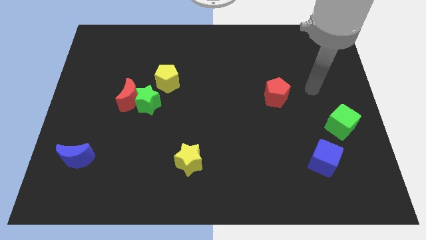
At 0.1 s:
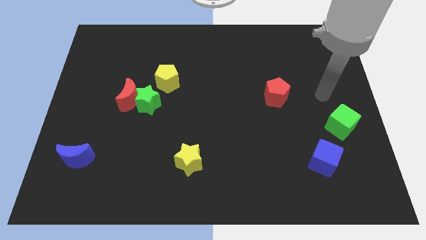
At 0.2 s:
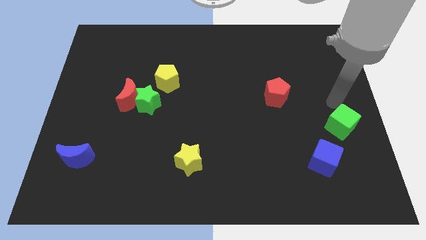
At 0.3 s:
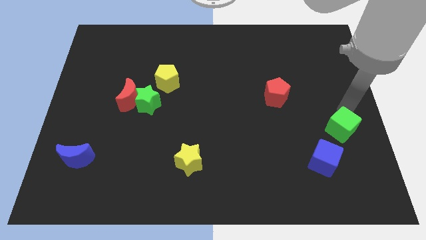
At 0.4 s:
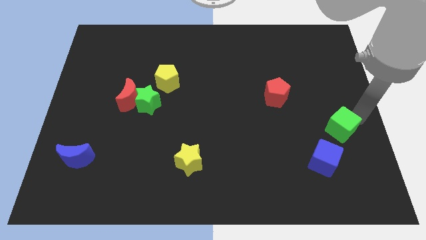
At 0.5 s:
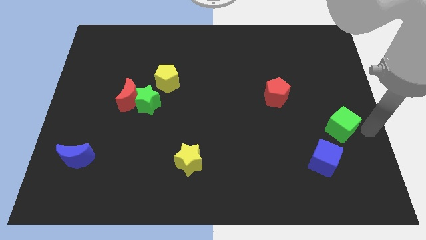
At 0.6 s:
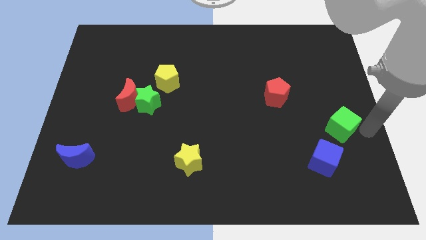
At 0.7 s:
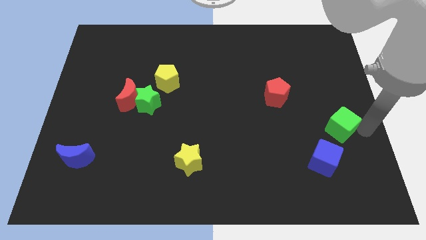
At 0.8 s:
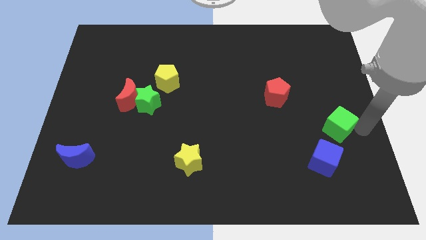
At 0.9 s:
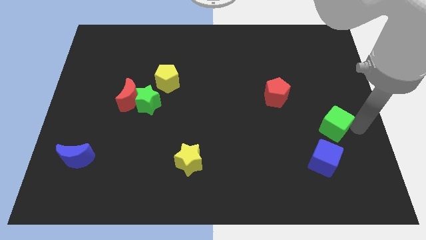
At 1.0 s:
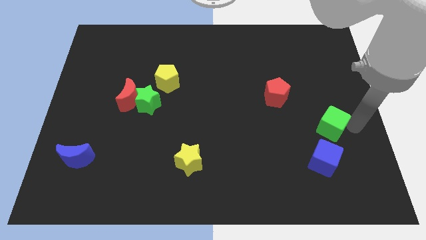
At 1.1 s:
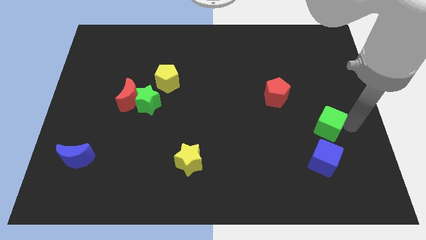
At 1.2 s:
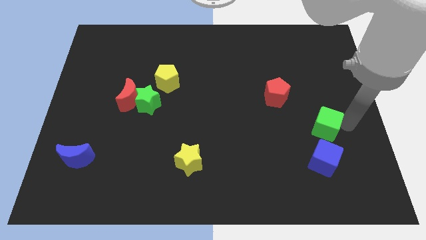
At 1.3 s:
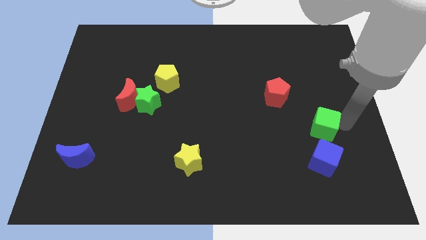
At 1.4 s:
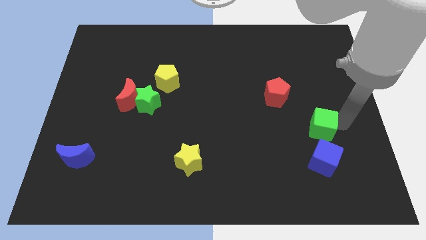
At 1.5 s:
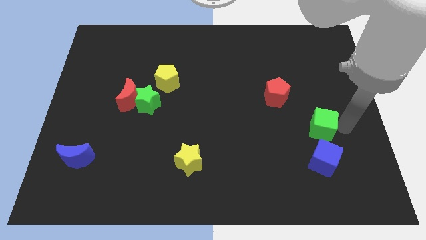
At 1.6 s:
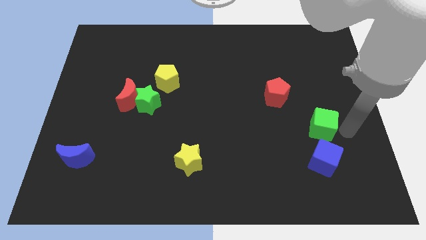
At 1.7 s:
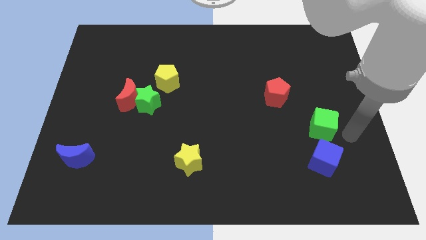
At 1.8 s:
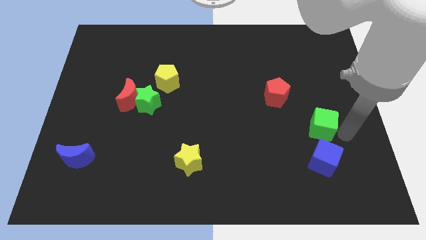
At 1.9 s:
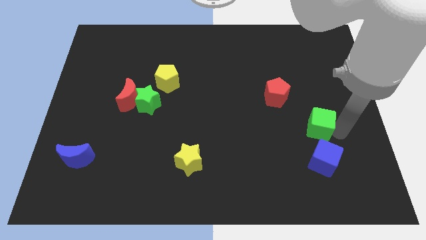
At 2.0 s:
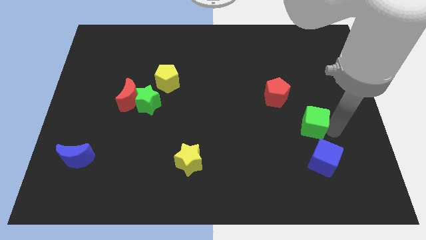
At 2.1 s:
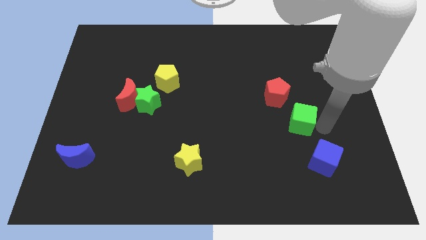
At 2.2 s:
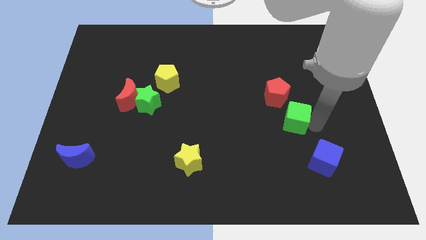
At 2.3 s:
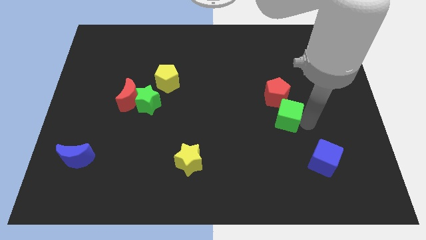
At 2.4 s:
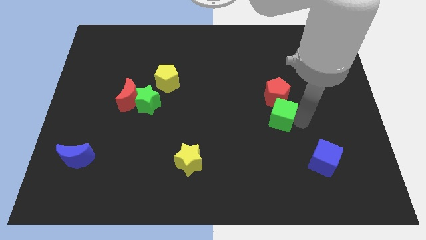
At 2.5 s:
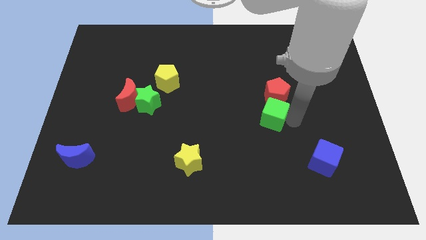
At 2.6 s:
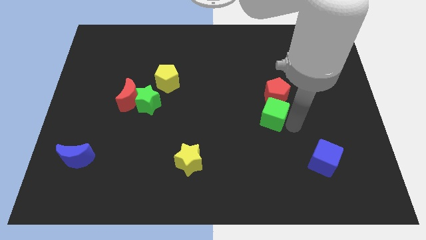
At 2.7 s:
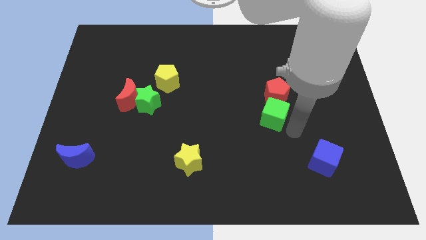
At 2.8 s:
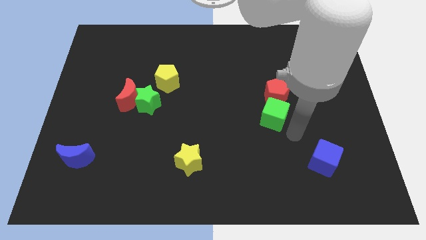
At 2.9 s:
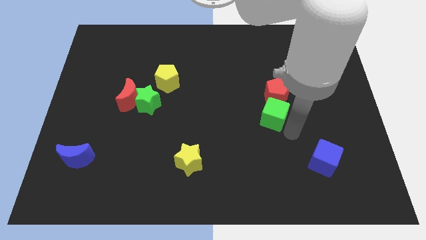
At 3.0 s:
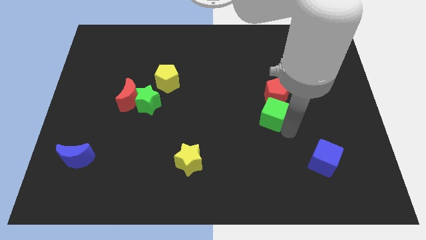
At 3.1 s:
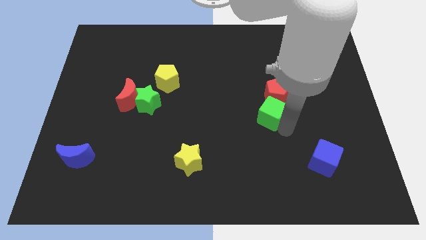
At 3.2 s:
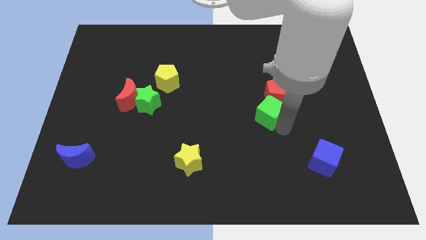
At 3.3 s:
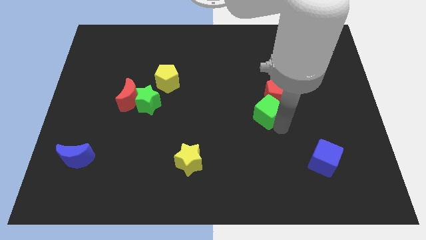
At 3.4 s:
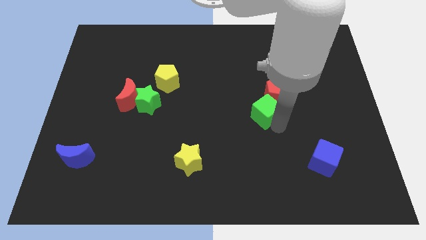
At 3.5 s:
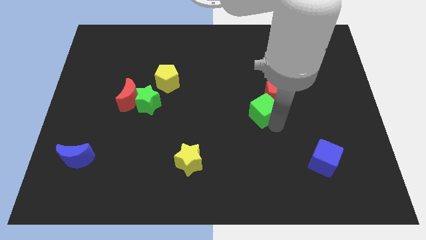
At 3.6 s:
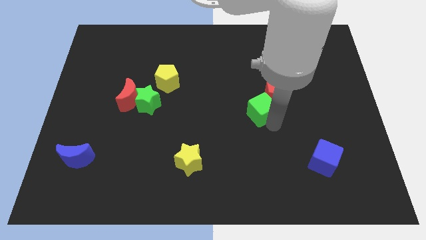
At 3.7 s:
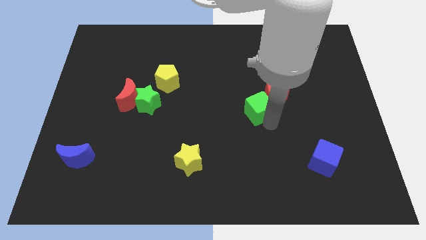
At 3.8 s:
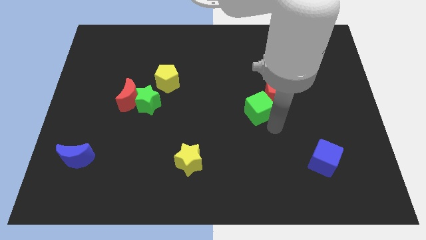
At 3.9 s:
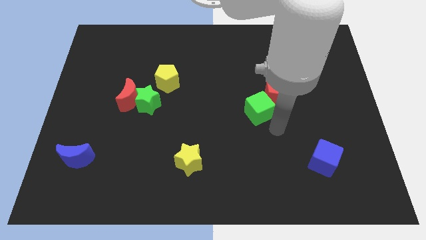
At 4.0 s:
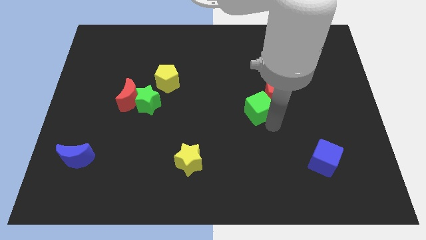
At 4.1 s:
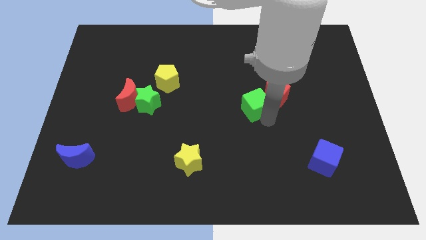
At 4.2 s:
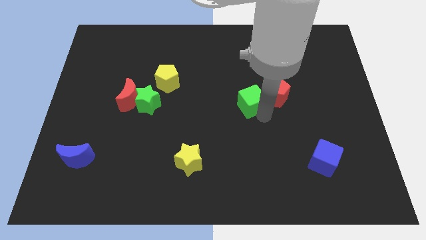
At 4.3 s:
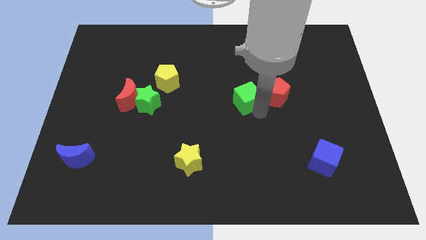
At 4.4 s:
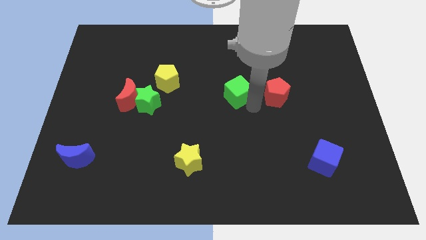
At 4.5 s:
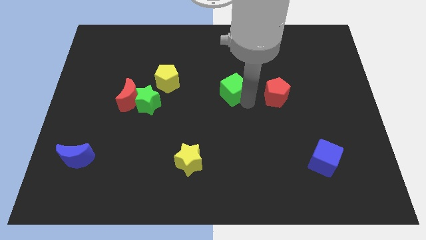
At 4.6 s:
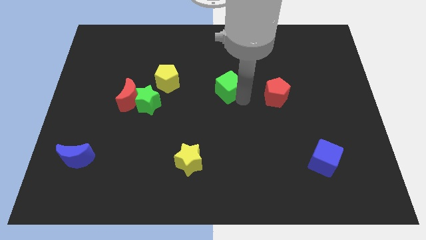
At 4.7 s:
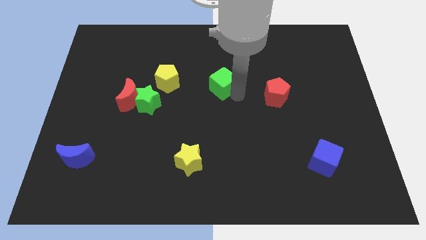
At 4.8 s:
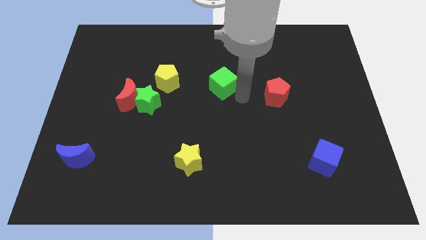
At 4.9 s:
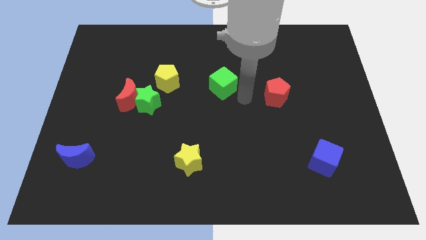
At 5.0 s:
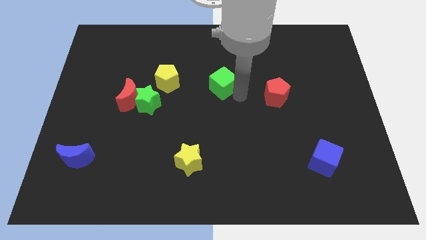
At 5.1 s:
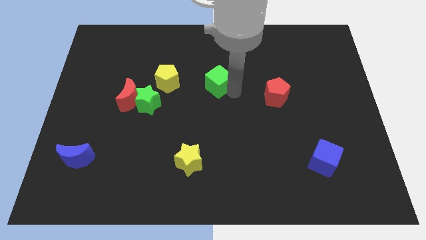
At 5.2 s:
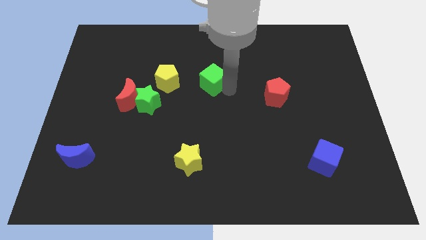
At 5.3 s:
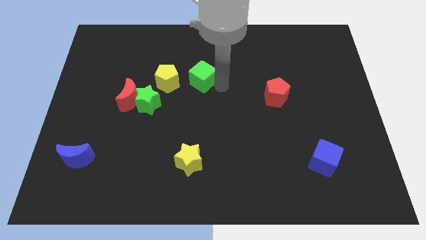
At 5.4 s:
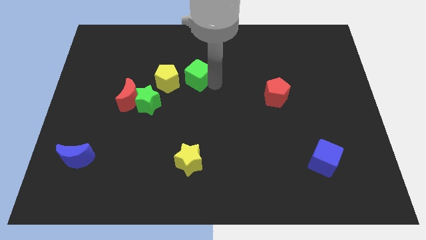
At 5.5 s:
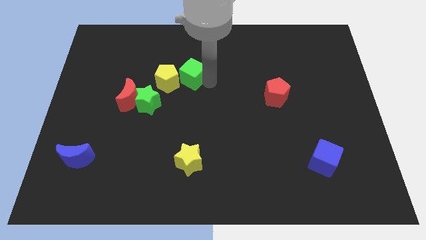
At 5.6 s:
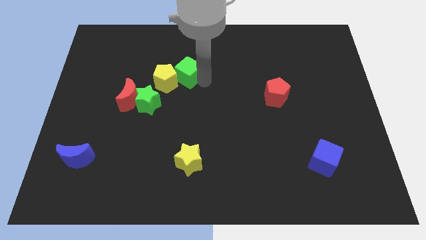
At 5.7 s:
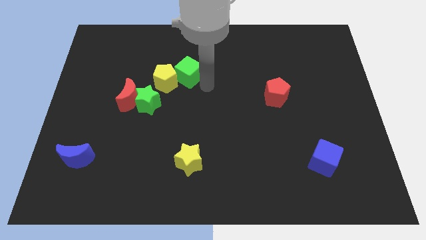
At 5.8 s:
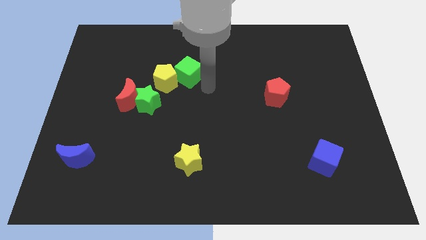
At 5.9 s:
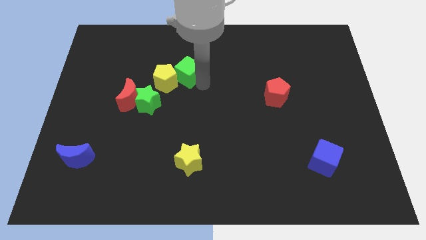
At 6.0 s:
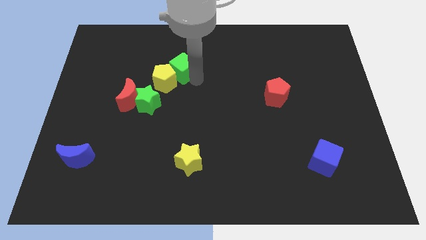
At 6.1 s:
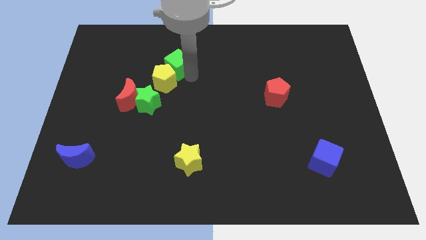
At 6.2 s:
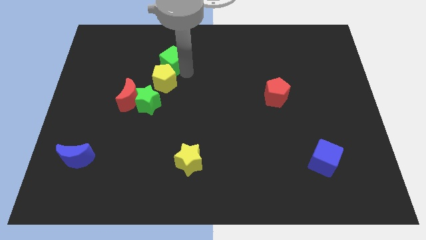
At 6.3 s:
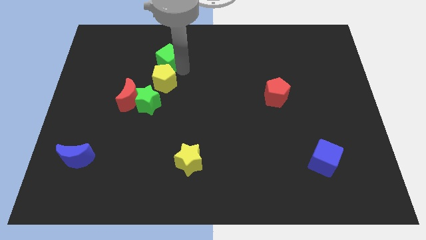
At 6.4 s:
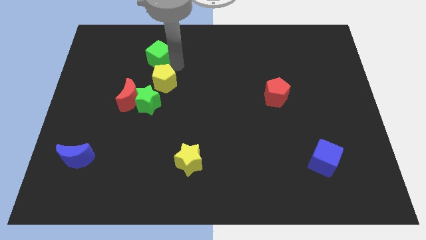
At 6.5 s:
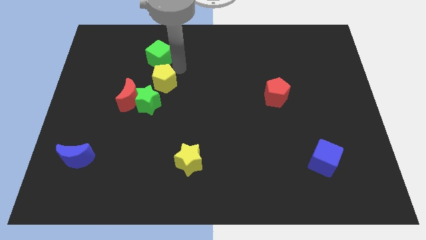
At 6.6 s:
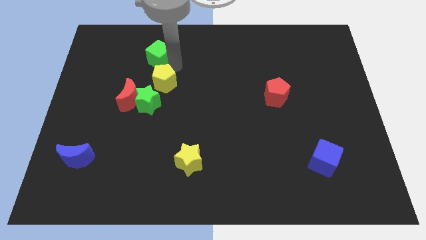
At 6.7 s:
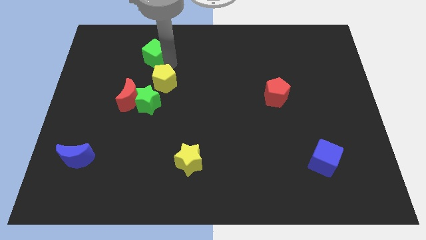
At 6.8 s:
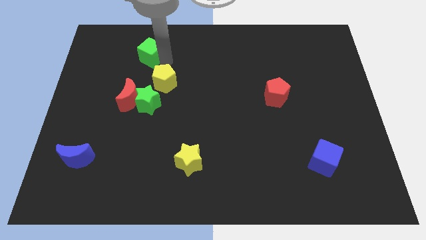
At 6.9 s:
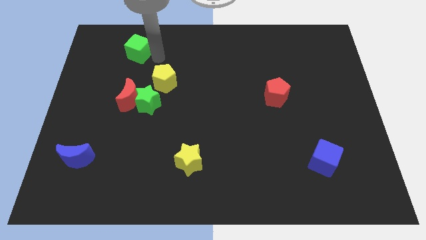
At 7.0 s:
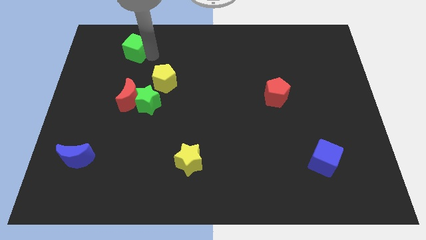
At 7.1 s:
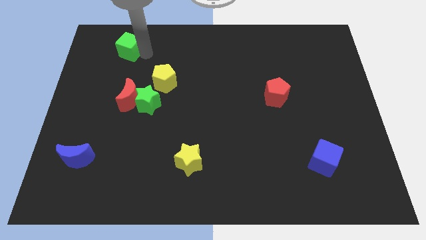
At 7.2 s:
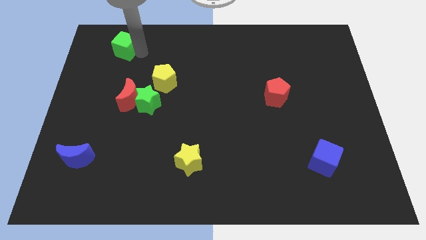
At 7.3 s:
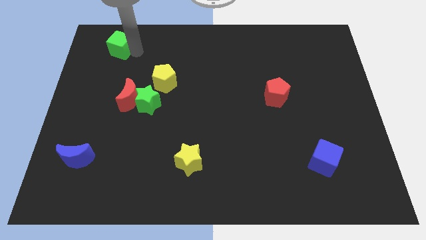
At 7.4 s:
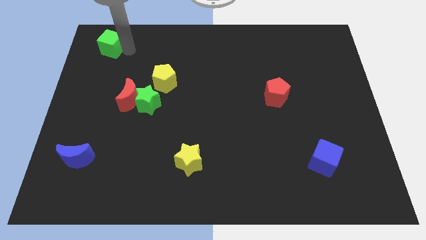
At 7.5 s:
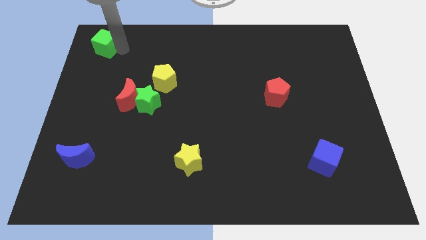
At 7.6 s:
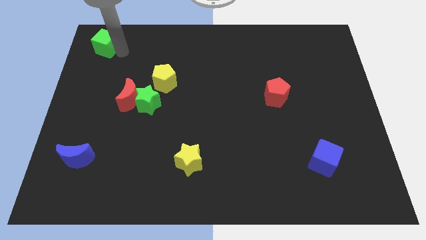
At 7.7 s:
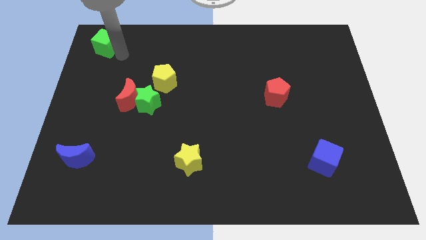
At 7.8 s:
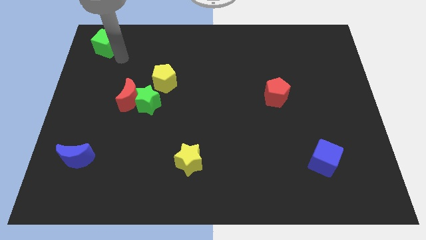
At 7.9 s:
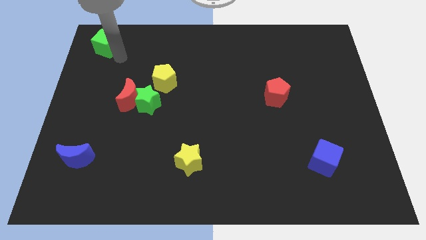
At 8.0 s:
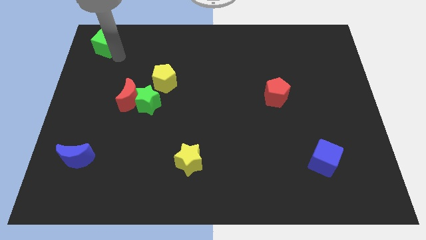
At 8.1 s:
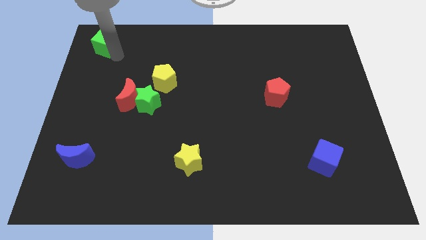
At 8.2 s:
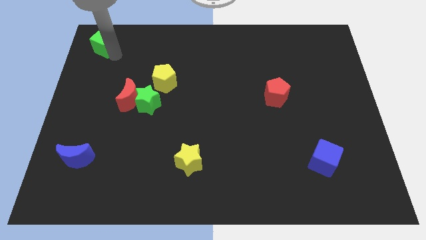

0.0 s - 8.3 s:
put the green cube to the upper left corner
